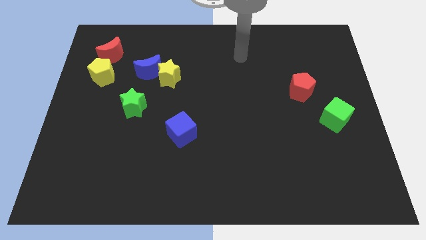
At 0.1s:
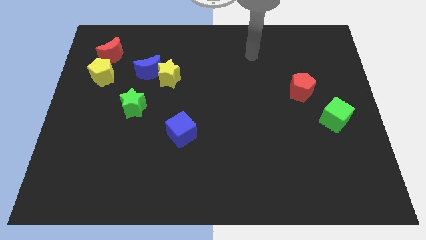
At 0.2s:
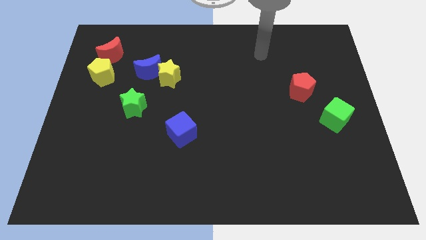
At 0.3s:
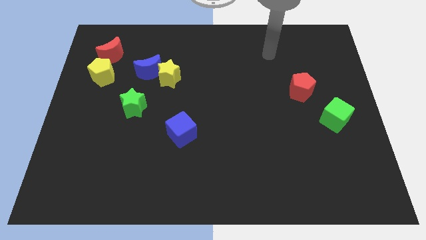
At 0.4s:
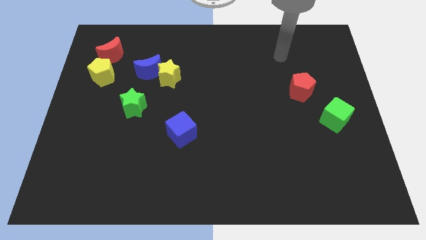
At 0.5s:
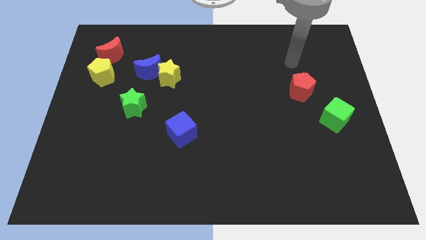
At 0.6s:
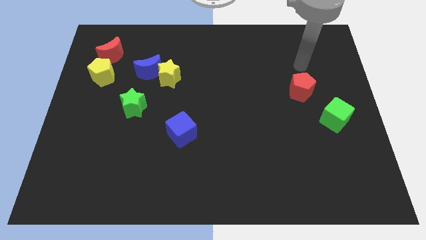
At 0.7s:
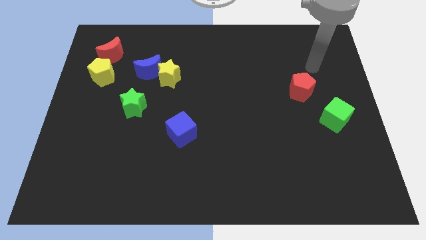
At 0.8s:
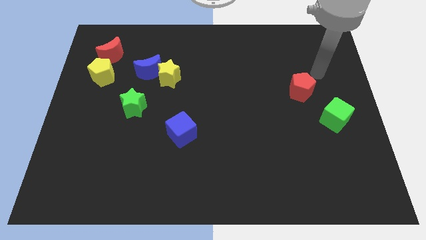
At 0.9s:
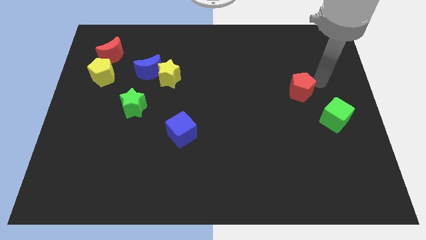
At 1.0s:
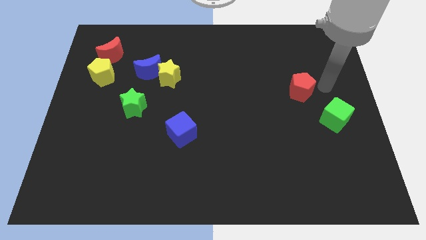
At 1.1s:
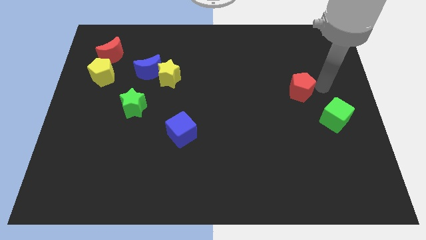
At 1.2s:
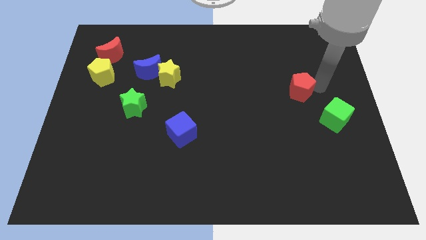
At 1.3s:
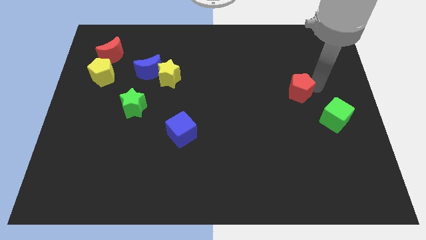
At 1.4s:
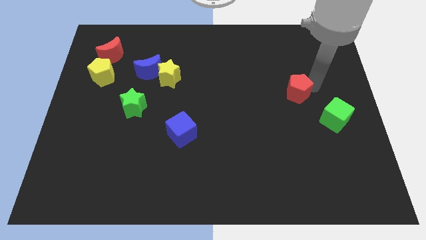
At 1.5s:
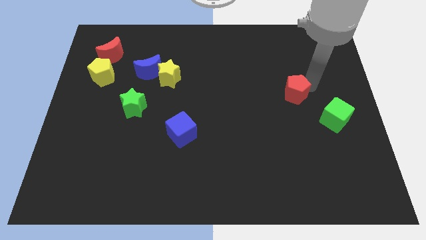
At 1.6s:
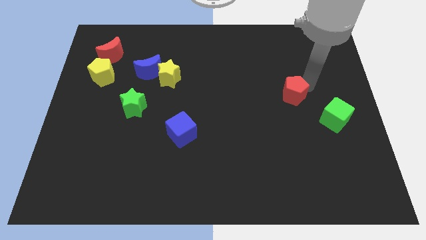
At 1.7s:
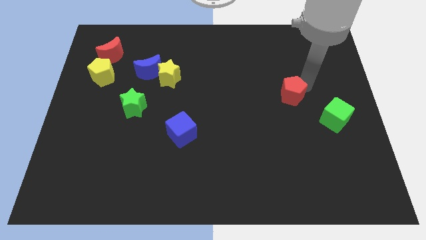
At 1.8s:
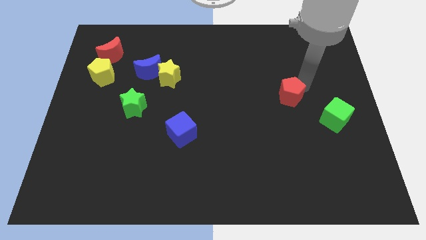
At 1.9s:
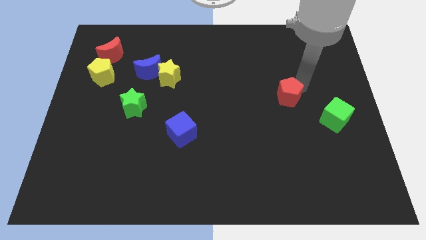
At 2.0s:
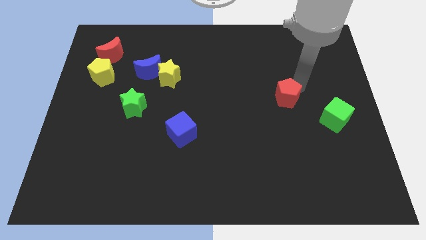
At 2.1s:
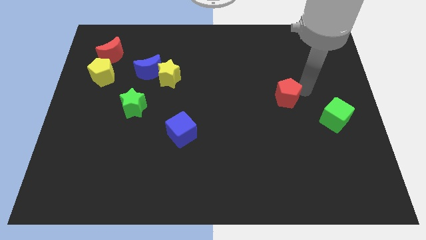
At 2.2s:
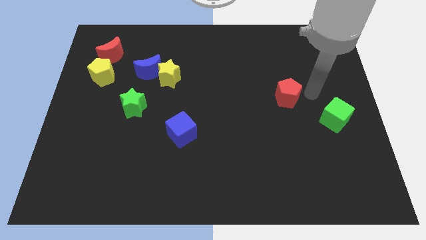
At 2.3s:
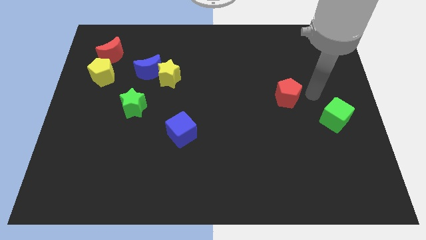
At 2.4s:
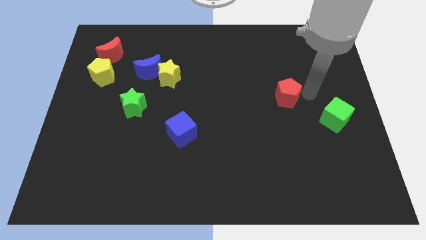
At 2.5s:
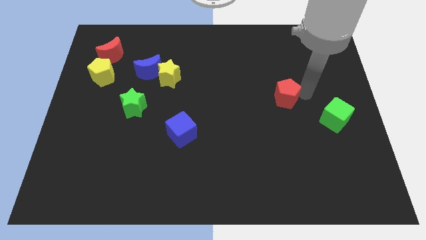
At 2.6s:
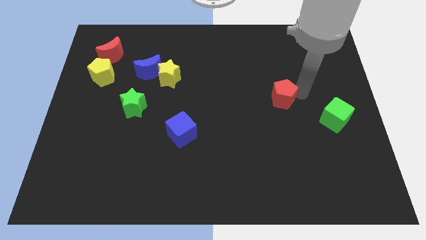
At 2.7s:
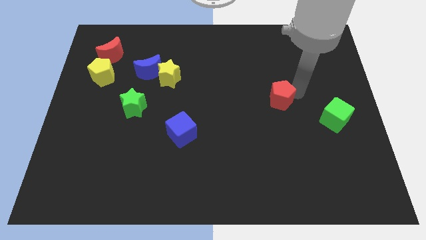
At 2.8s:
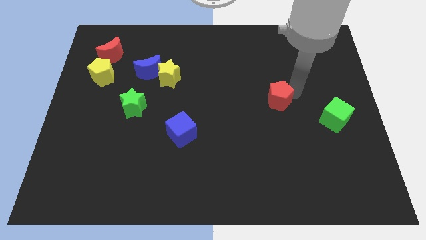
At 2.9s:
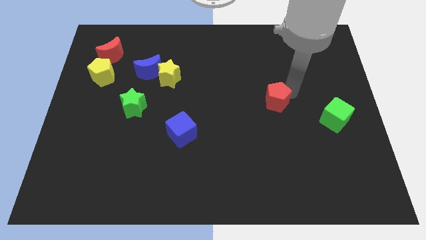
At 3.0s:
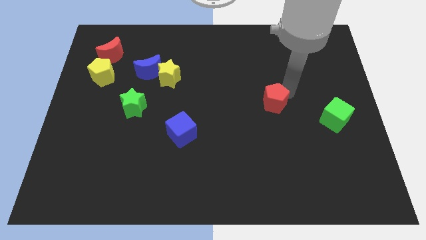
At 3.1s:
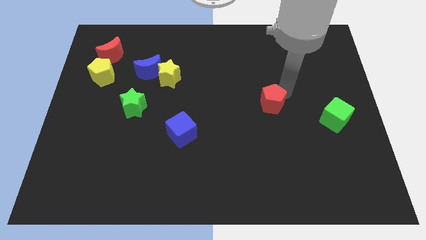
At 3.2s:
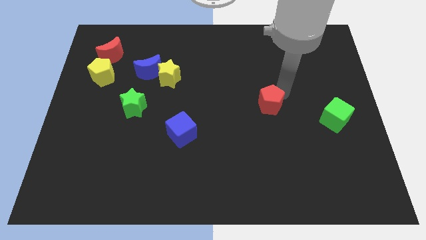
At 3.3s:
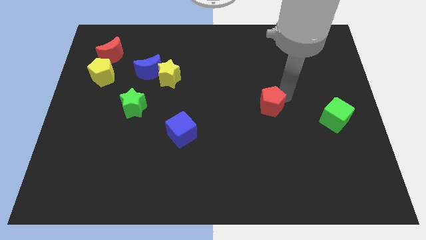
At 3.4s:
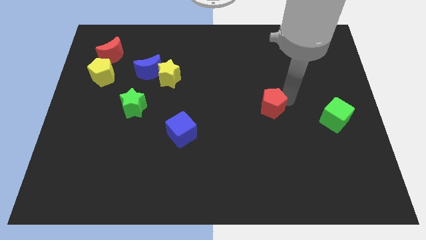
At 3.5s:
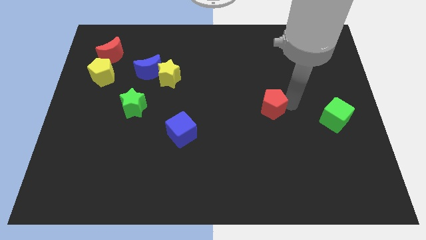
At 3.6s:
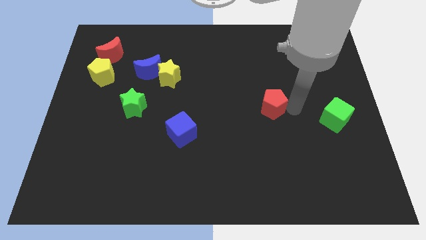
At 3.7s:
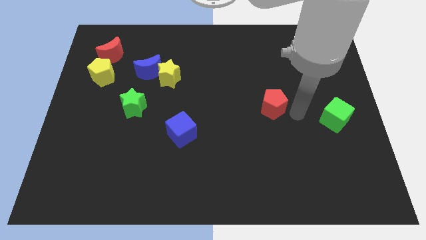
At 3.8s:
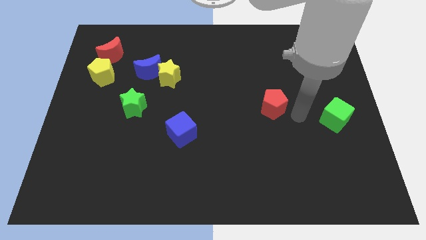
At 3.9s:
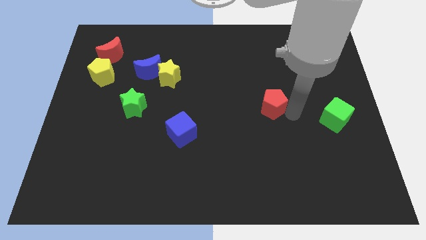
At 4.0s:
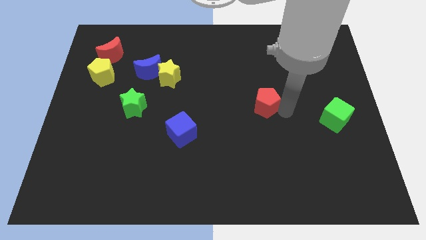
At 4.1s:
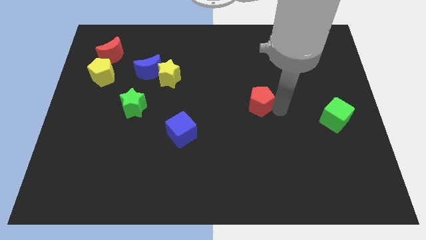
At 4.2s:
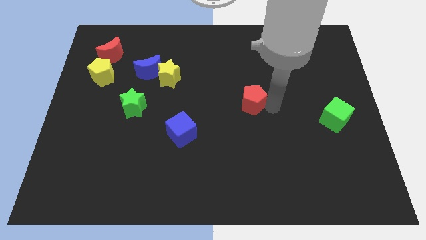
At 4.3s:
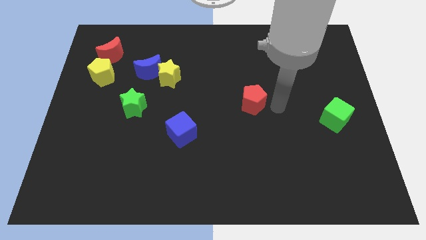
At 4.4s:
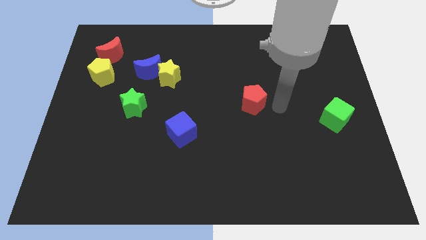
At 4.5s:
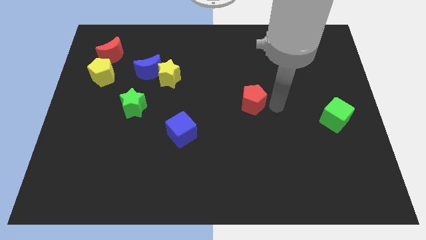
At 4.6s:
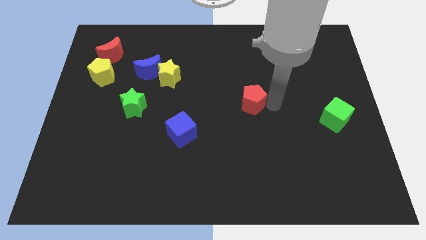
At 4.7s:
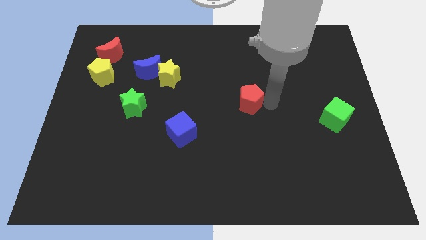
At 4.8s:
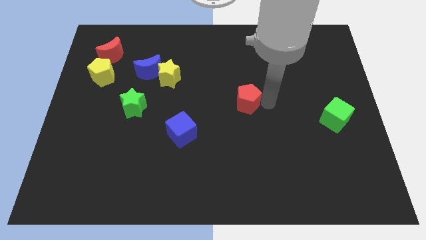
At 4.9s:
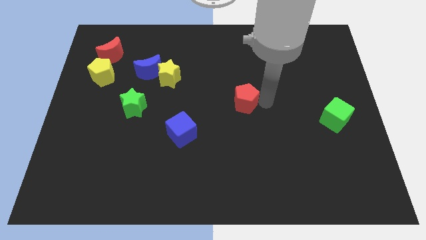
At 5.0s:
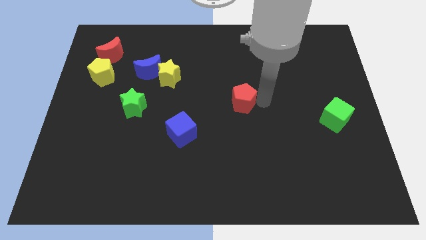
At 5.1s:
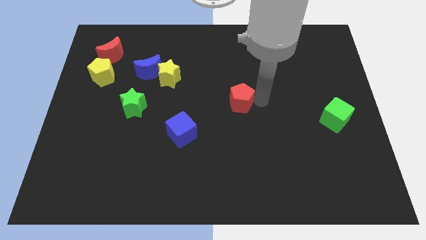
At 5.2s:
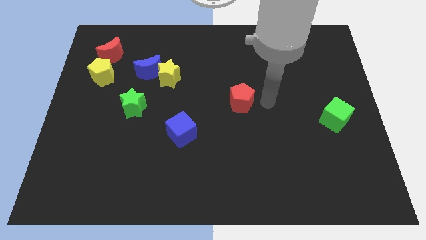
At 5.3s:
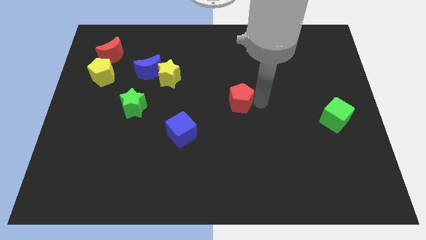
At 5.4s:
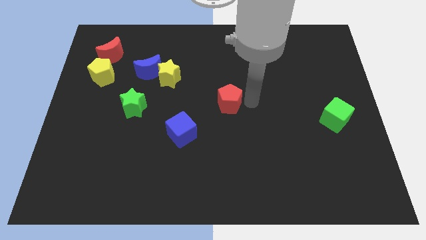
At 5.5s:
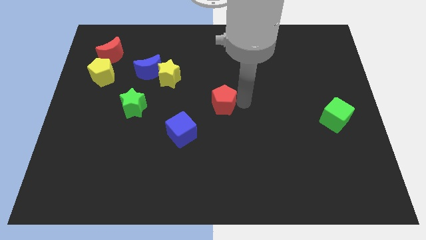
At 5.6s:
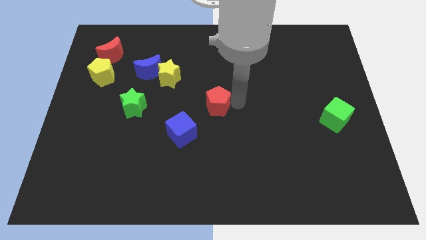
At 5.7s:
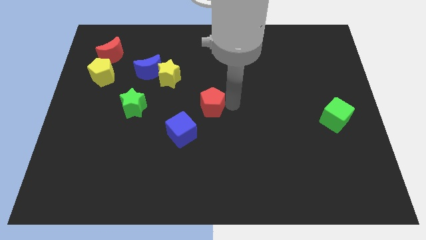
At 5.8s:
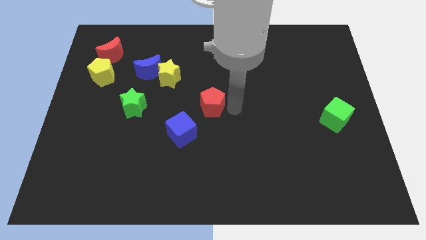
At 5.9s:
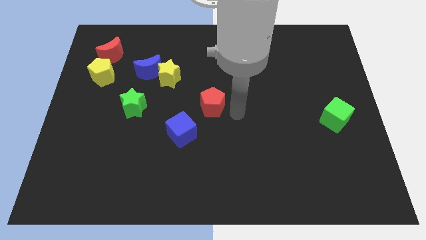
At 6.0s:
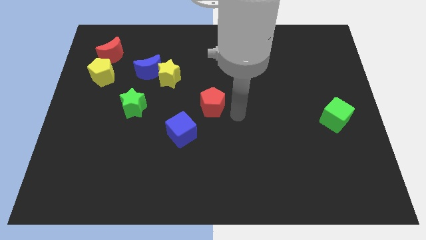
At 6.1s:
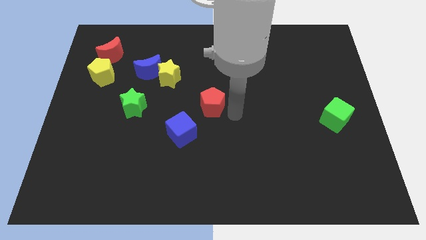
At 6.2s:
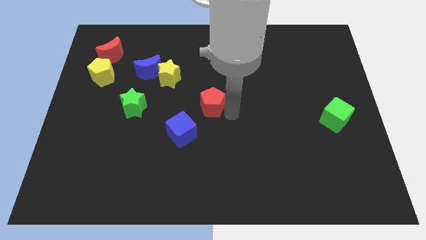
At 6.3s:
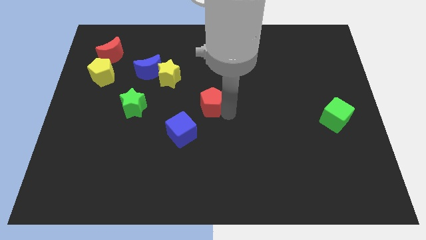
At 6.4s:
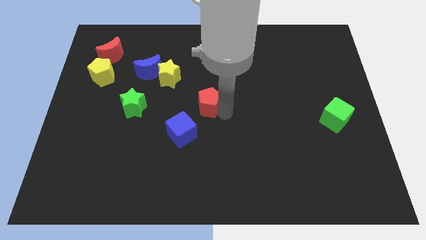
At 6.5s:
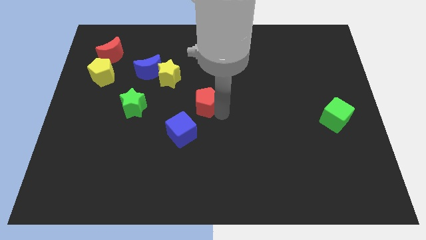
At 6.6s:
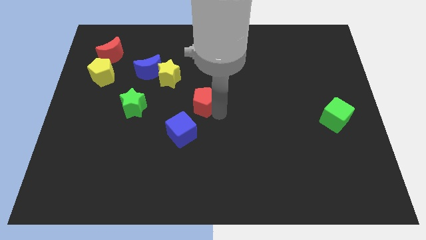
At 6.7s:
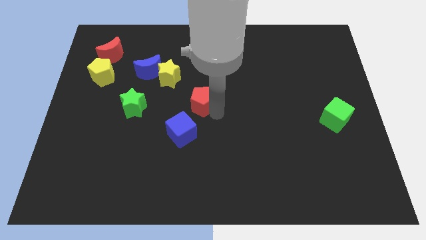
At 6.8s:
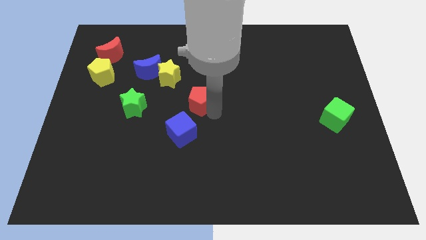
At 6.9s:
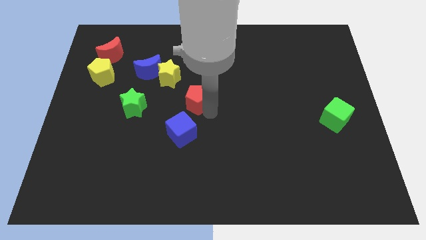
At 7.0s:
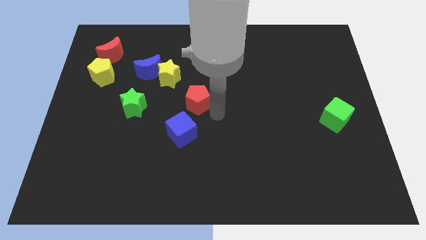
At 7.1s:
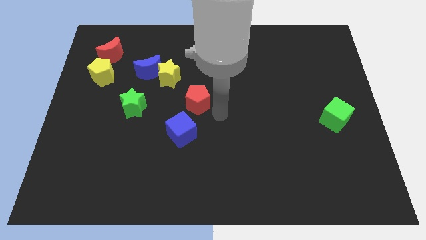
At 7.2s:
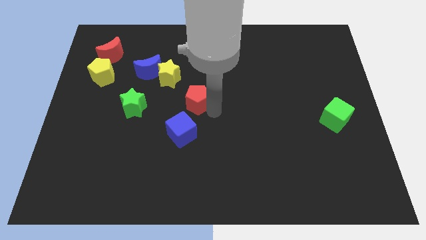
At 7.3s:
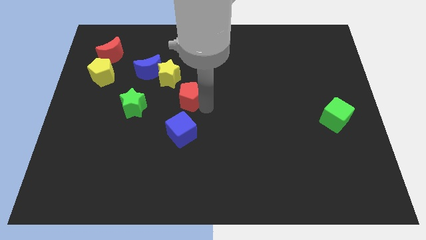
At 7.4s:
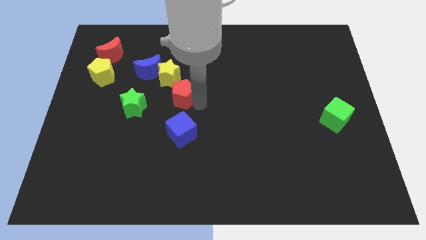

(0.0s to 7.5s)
put the red pentagon to the bottom right of the blue moon

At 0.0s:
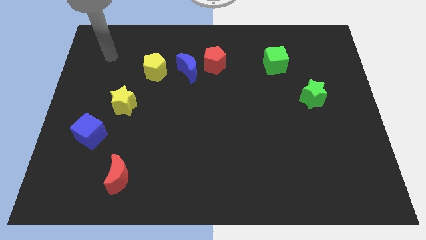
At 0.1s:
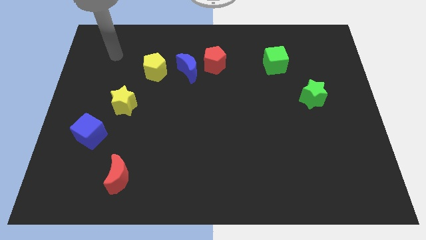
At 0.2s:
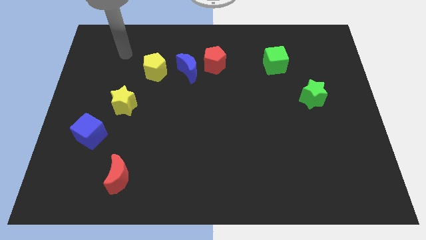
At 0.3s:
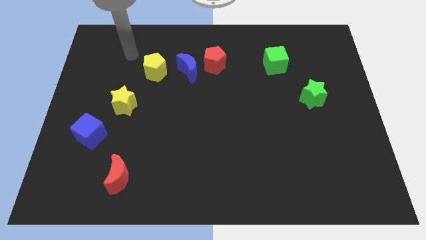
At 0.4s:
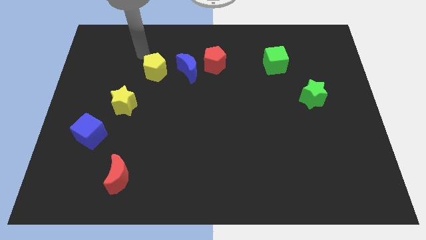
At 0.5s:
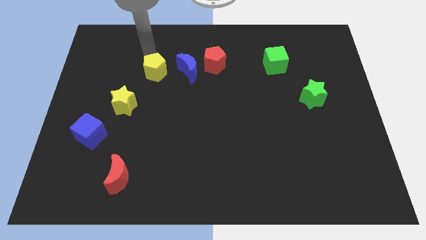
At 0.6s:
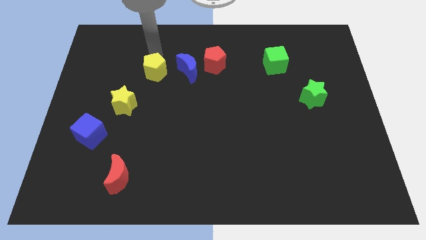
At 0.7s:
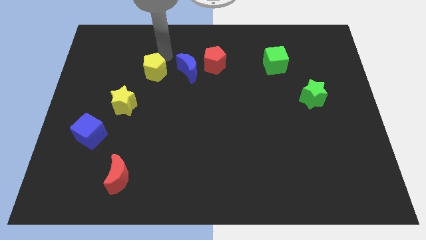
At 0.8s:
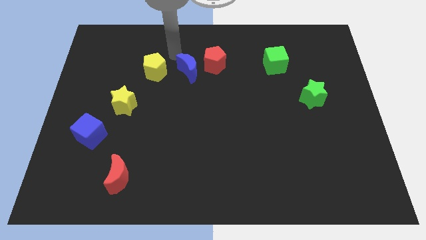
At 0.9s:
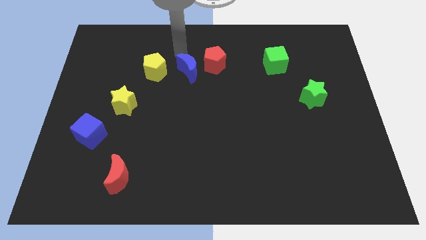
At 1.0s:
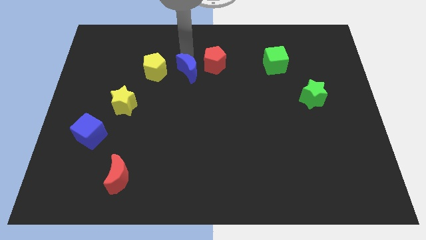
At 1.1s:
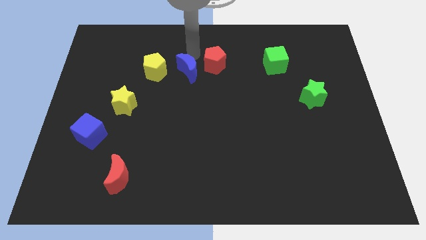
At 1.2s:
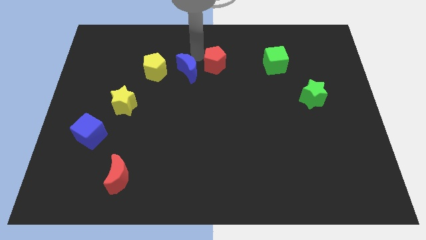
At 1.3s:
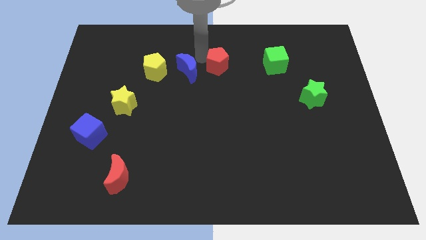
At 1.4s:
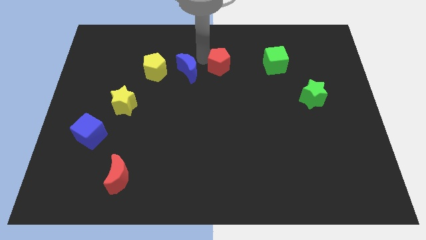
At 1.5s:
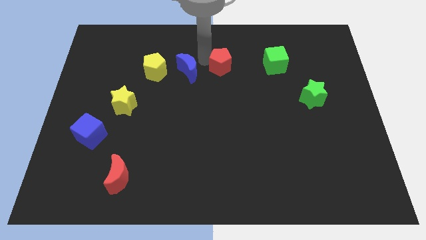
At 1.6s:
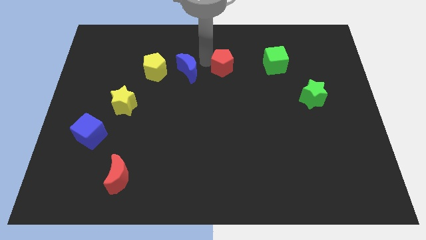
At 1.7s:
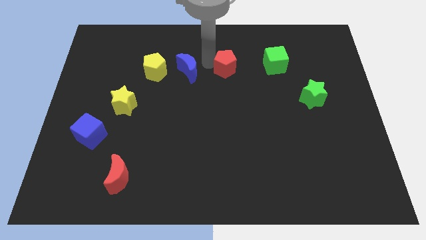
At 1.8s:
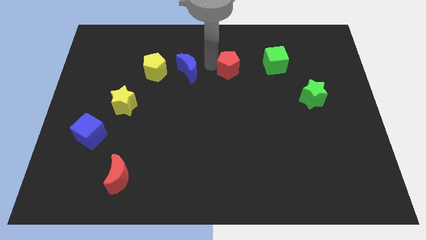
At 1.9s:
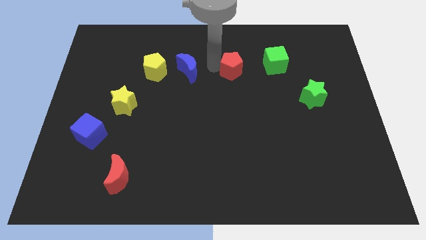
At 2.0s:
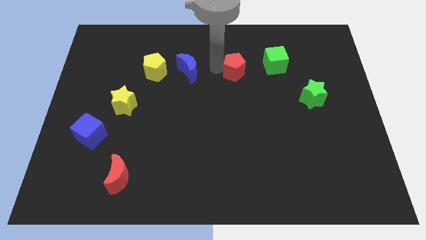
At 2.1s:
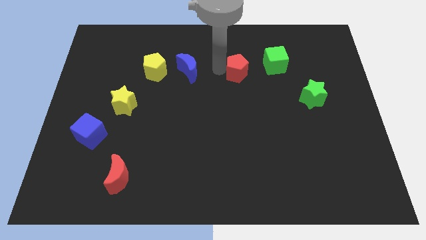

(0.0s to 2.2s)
put the red pentagon to the bottom left of the green cube
